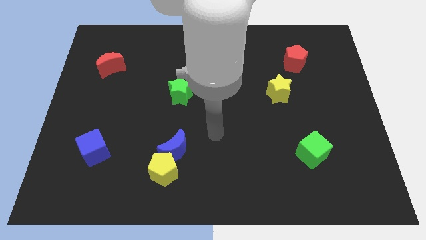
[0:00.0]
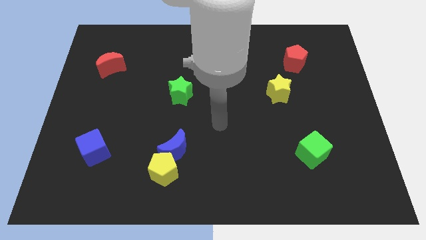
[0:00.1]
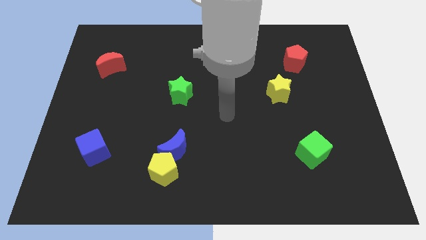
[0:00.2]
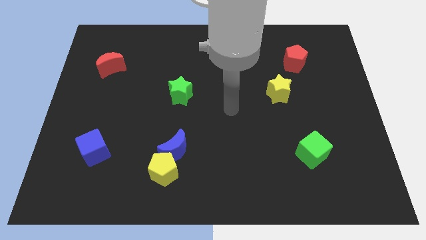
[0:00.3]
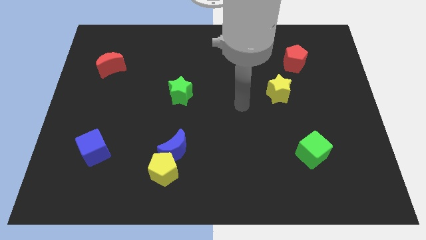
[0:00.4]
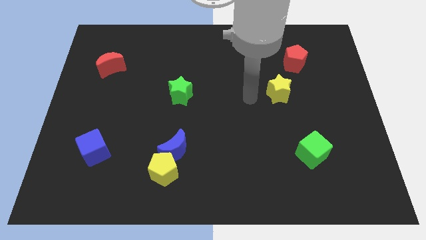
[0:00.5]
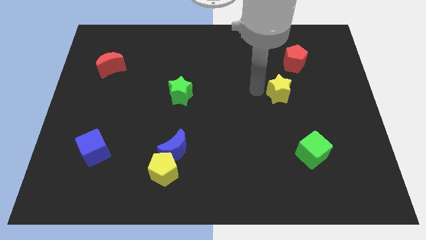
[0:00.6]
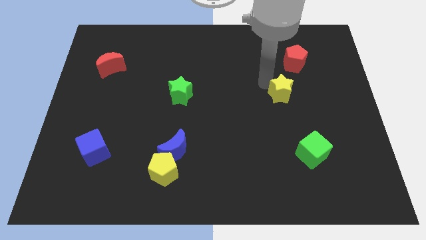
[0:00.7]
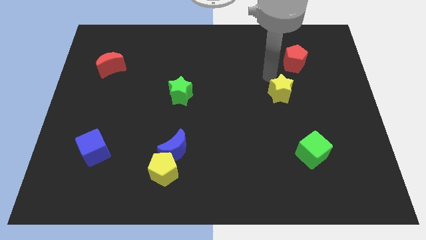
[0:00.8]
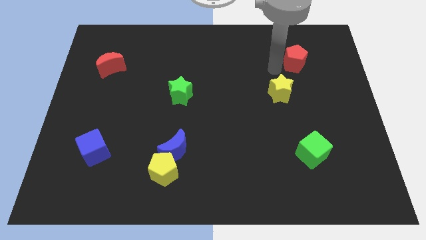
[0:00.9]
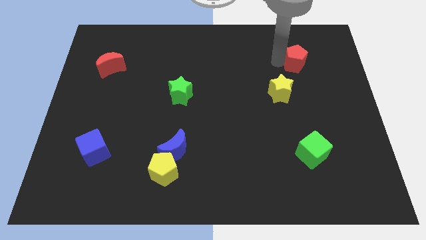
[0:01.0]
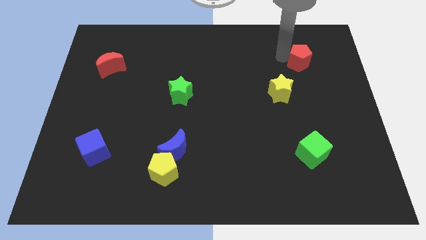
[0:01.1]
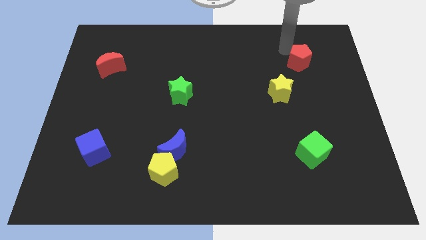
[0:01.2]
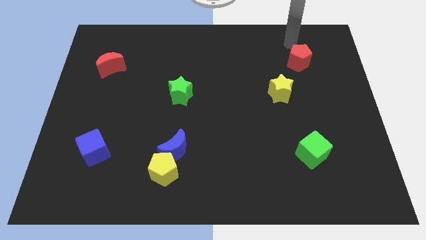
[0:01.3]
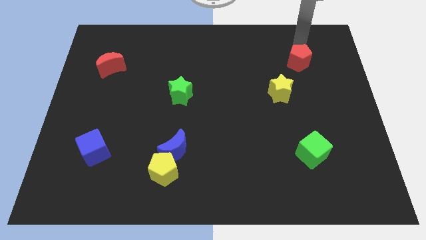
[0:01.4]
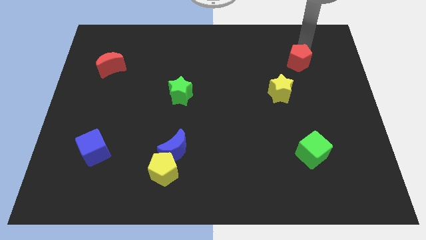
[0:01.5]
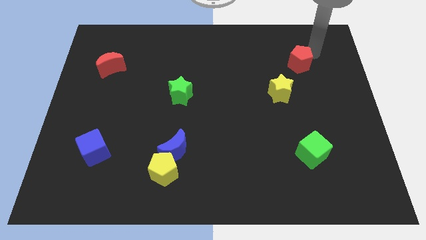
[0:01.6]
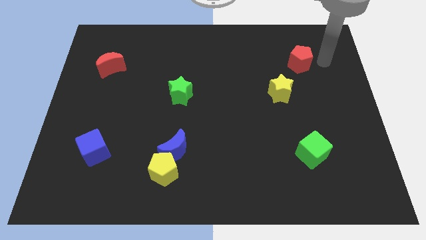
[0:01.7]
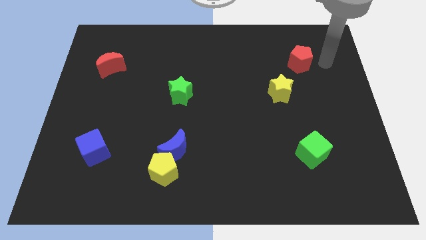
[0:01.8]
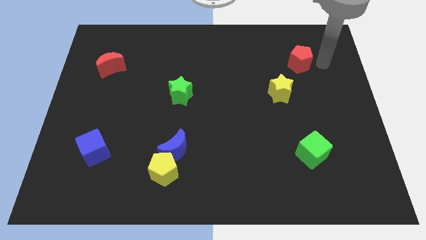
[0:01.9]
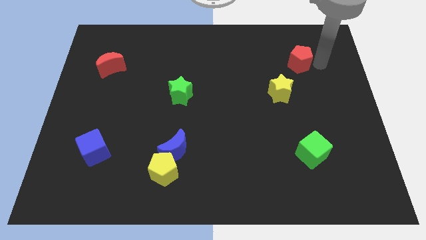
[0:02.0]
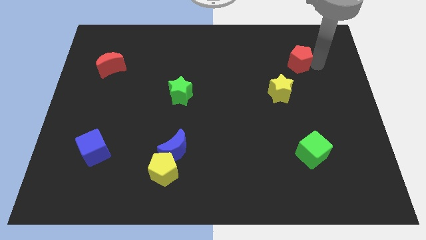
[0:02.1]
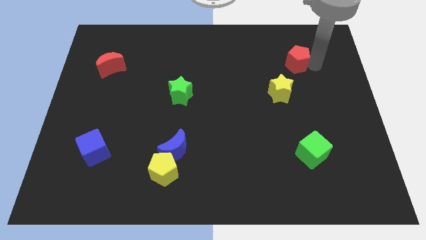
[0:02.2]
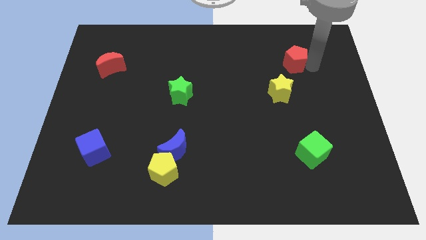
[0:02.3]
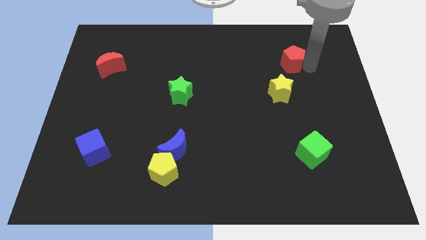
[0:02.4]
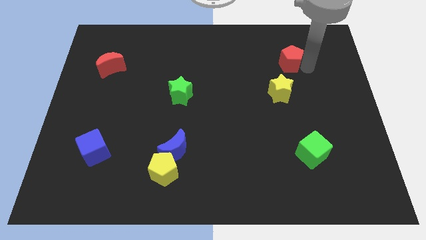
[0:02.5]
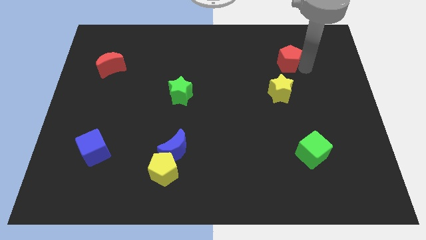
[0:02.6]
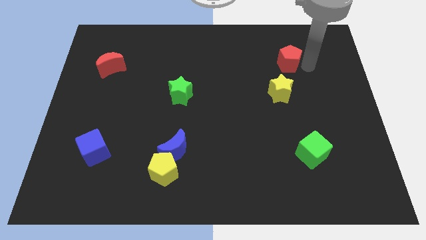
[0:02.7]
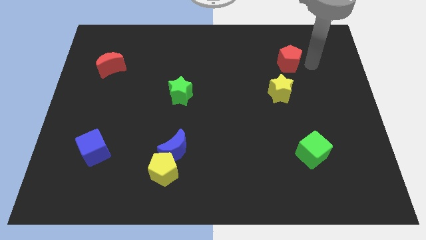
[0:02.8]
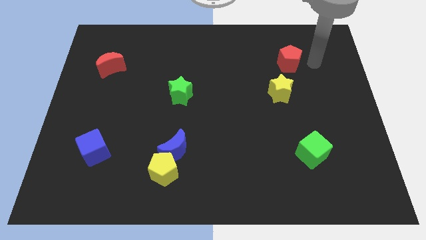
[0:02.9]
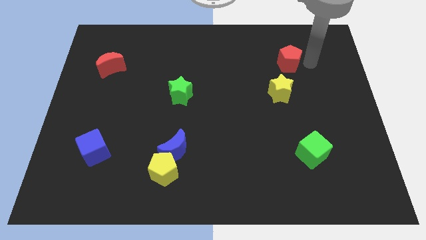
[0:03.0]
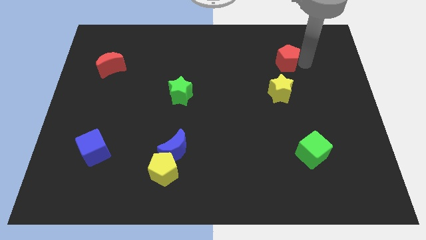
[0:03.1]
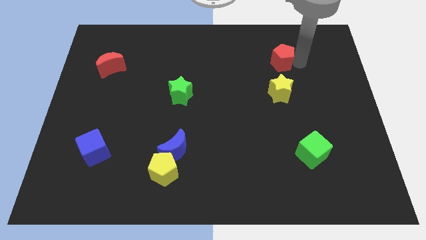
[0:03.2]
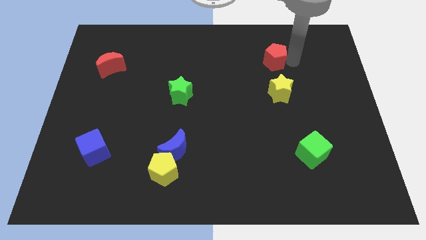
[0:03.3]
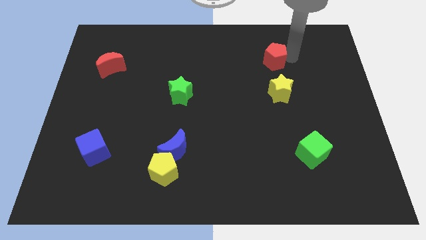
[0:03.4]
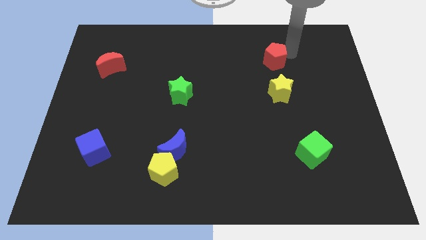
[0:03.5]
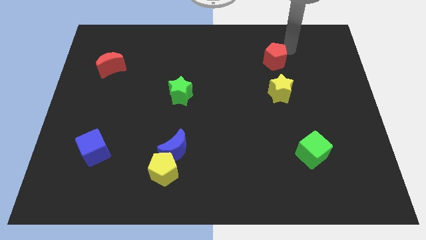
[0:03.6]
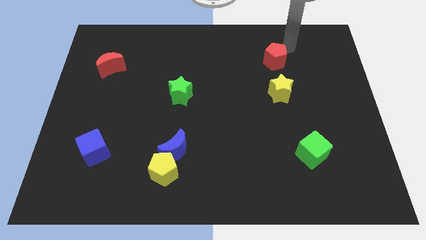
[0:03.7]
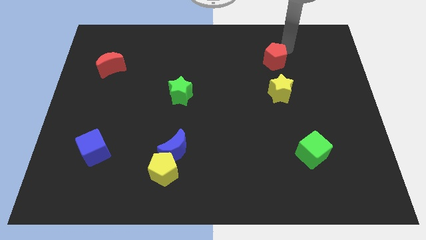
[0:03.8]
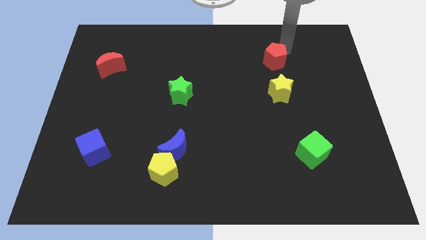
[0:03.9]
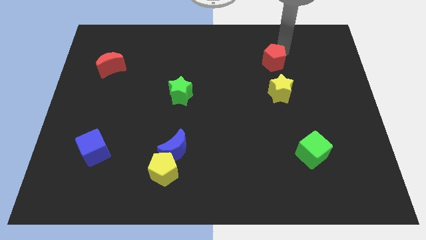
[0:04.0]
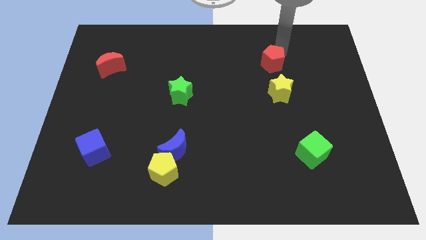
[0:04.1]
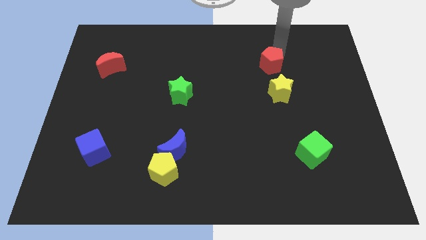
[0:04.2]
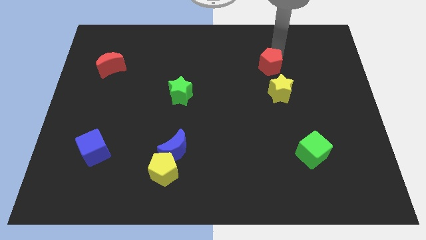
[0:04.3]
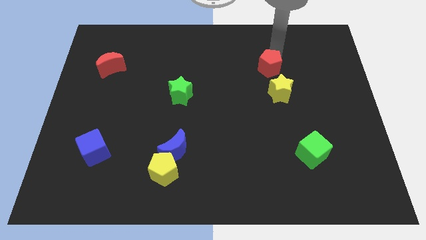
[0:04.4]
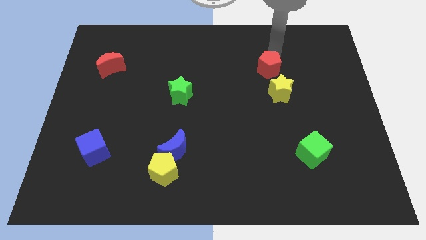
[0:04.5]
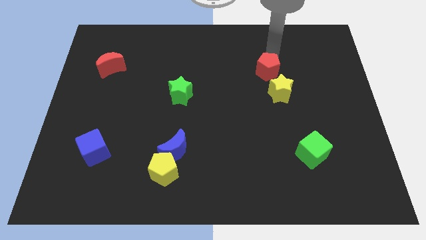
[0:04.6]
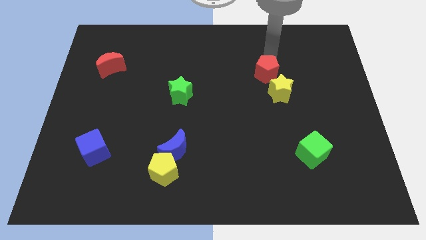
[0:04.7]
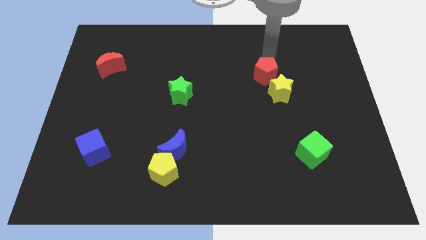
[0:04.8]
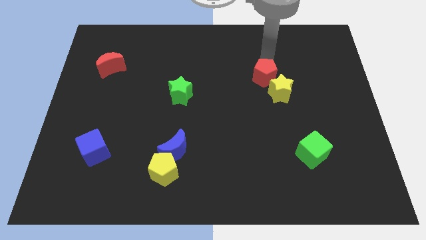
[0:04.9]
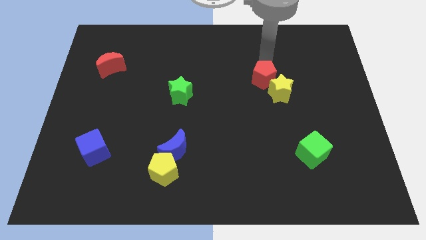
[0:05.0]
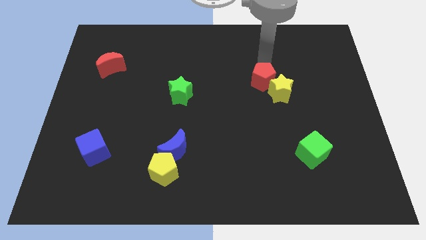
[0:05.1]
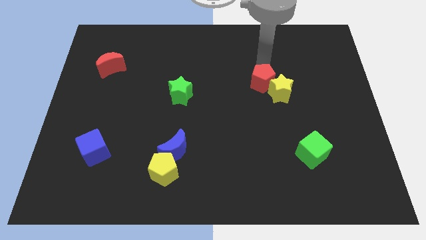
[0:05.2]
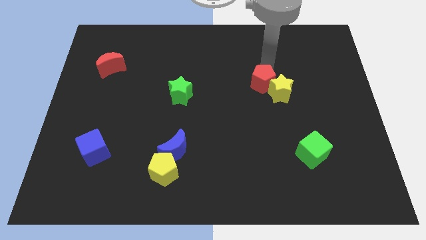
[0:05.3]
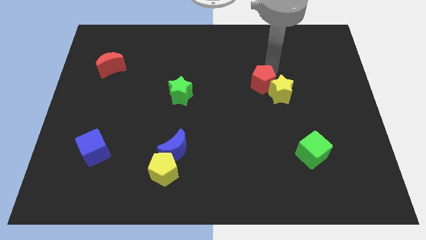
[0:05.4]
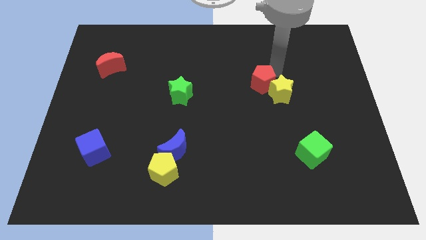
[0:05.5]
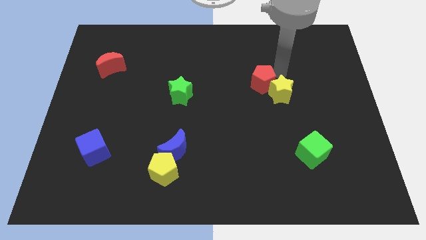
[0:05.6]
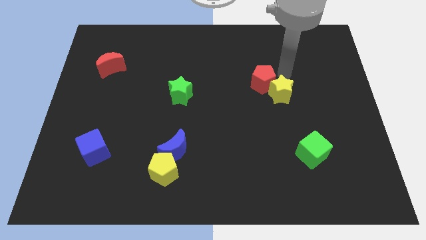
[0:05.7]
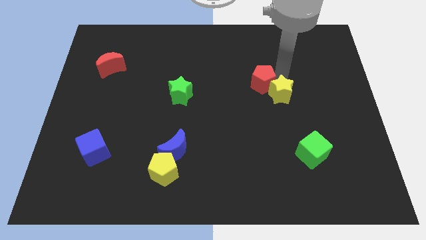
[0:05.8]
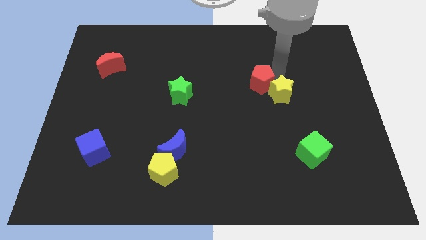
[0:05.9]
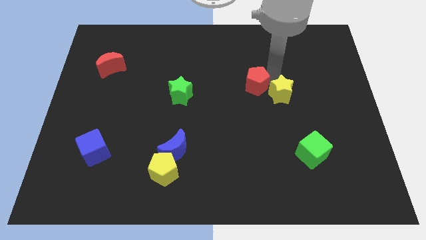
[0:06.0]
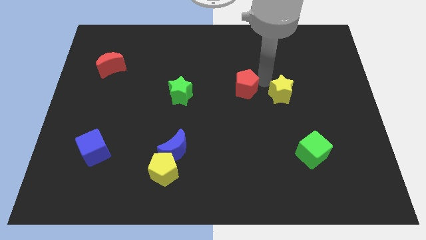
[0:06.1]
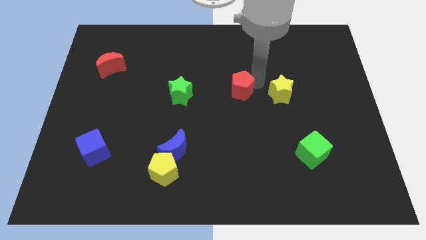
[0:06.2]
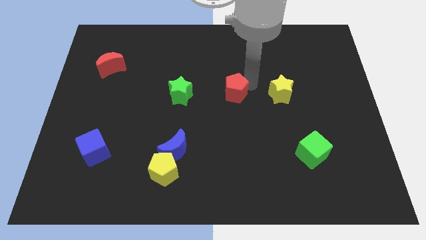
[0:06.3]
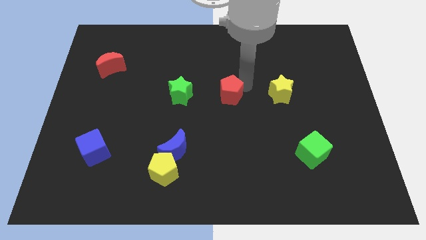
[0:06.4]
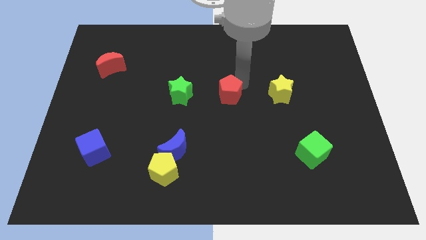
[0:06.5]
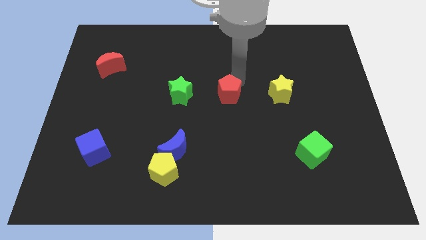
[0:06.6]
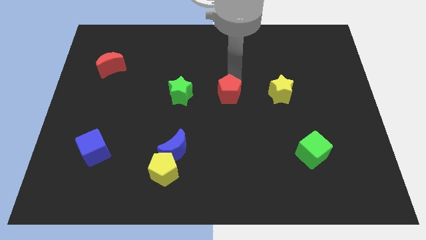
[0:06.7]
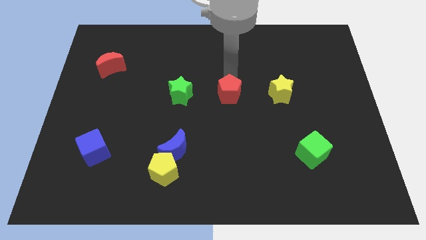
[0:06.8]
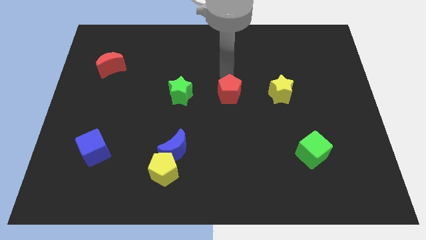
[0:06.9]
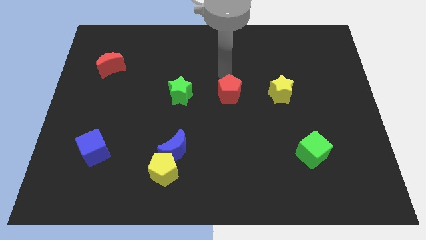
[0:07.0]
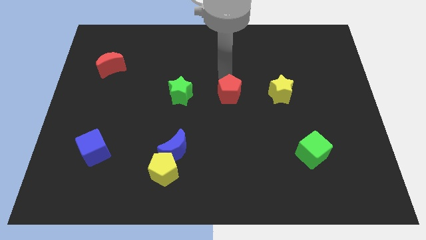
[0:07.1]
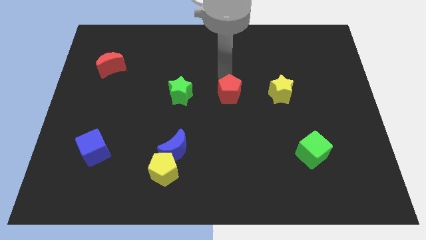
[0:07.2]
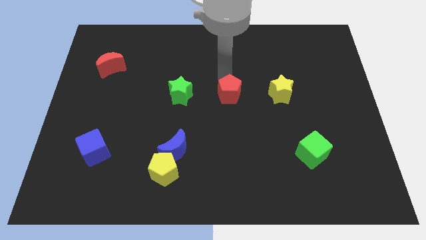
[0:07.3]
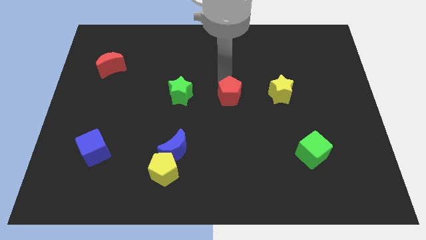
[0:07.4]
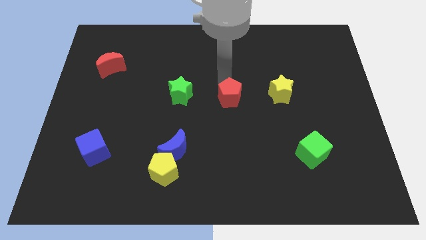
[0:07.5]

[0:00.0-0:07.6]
move the red pentagon down and left diagonally

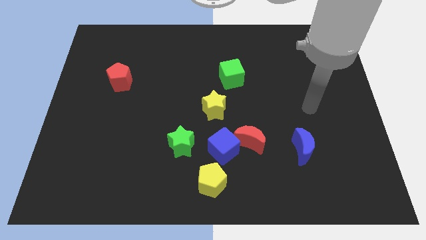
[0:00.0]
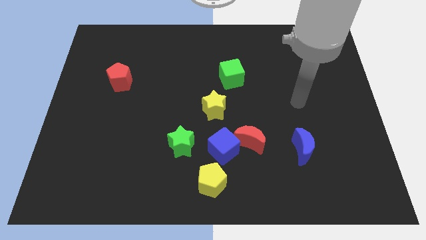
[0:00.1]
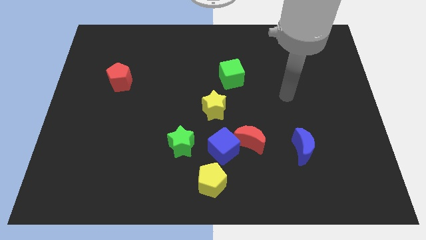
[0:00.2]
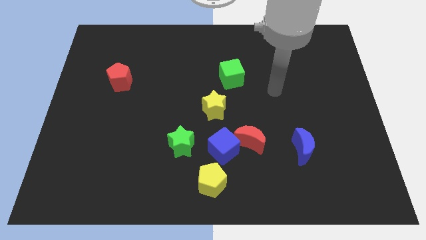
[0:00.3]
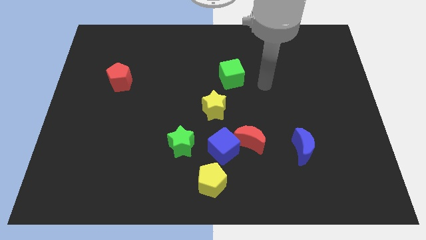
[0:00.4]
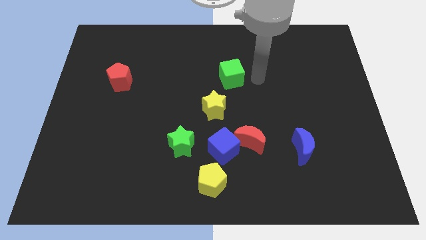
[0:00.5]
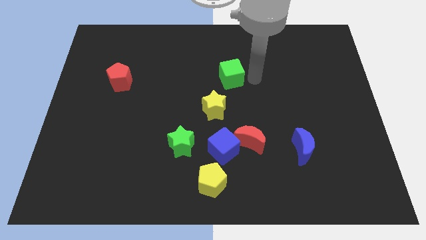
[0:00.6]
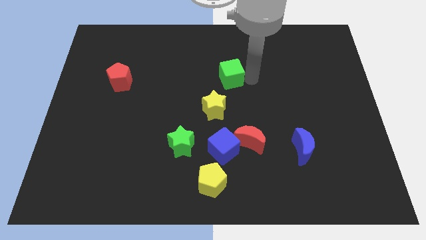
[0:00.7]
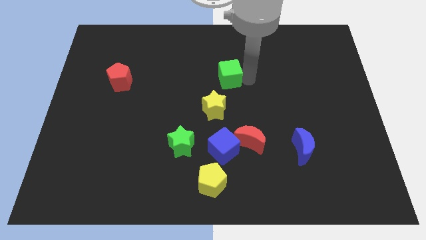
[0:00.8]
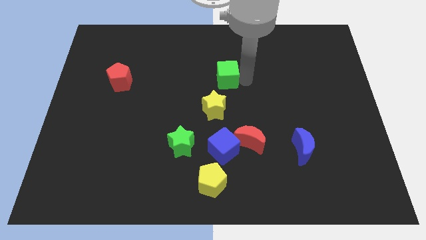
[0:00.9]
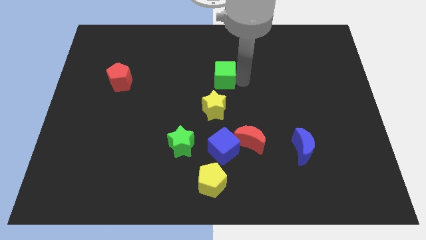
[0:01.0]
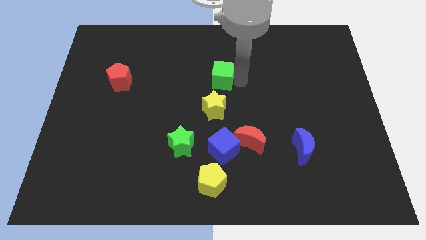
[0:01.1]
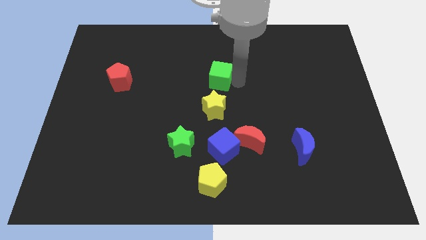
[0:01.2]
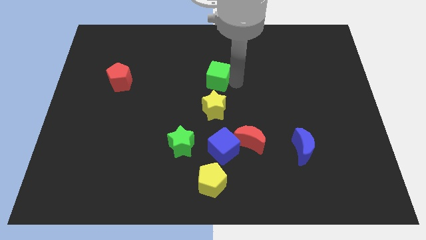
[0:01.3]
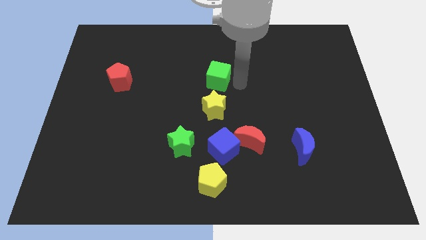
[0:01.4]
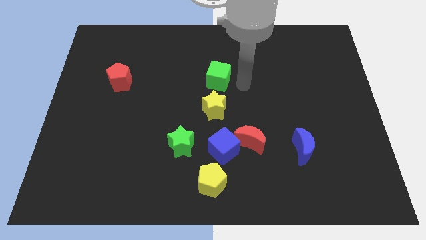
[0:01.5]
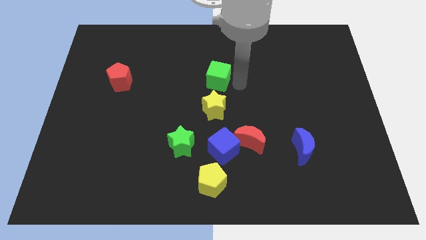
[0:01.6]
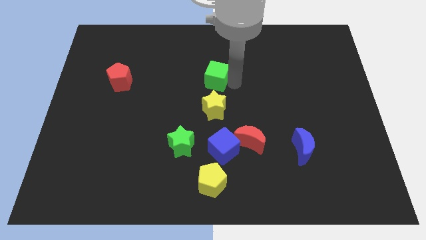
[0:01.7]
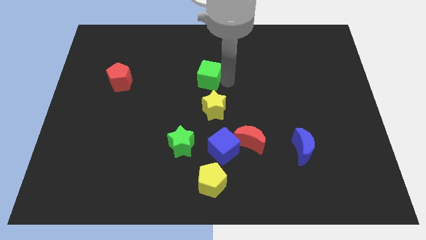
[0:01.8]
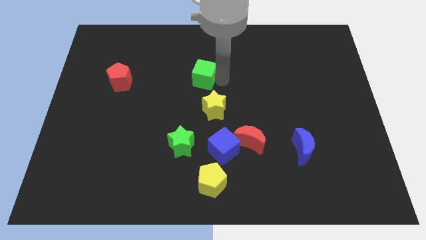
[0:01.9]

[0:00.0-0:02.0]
move the green cube a little to the left
